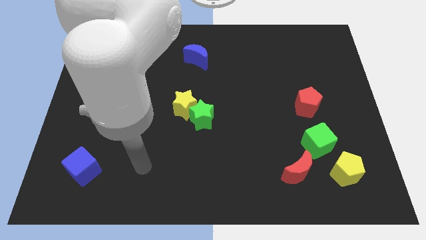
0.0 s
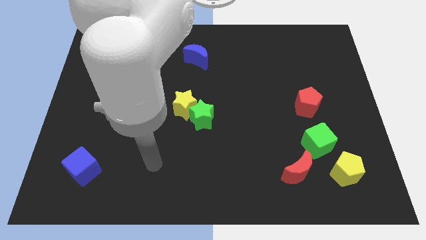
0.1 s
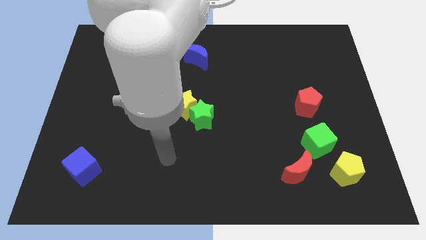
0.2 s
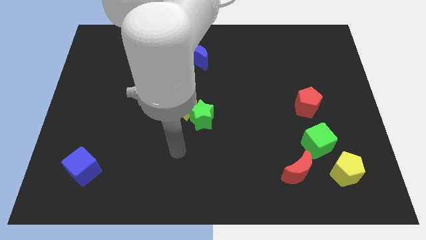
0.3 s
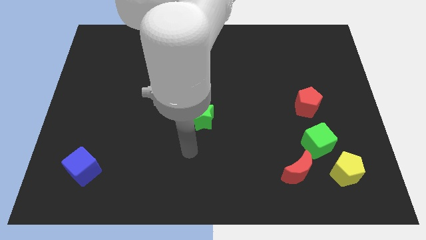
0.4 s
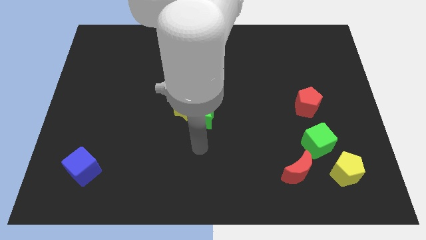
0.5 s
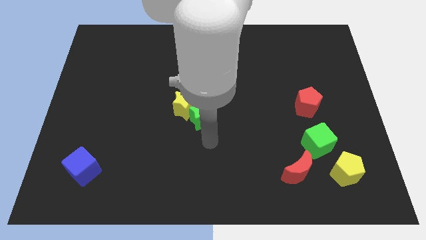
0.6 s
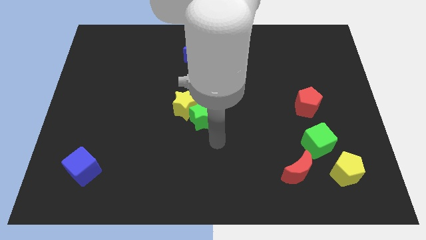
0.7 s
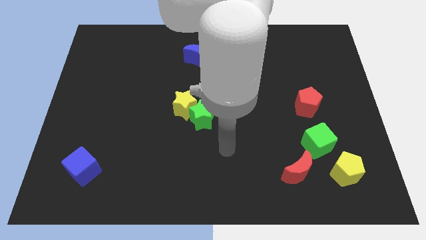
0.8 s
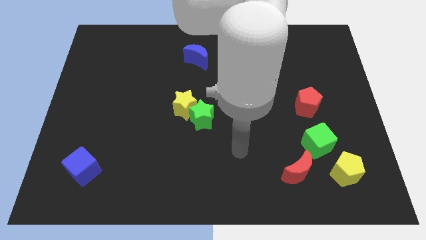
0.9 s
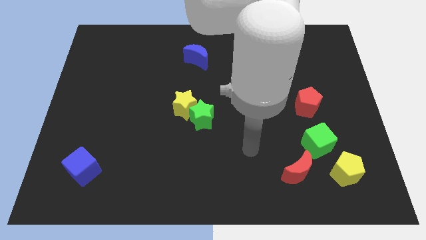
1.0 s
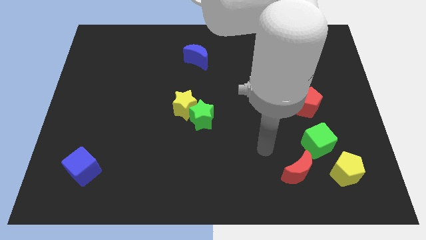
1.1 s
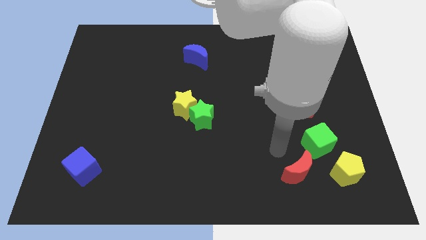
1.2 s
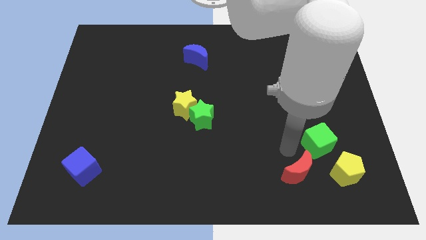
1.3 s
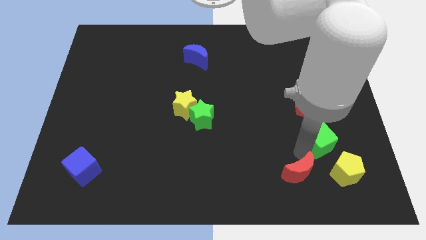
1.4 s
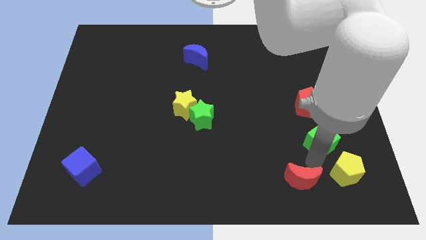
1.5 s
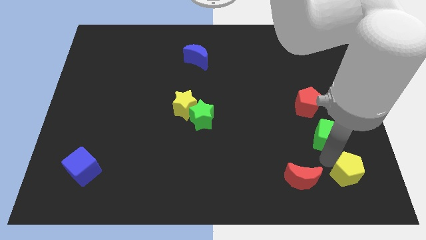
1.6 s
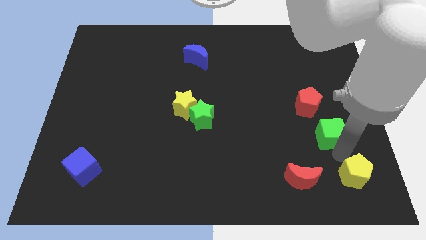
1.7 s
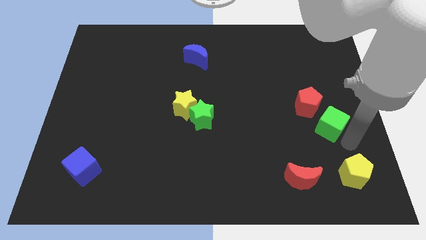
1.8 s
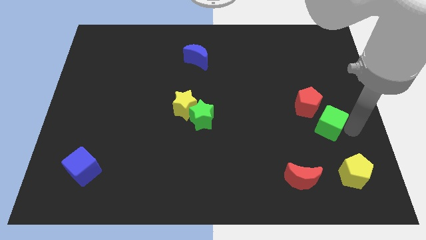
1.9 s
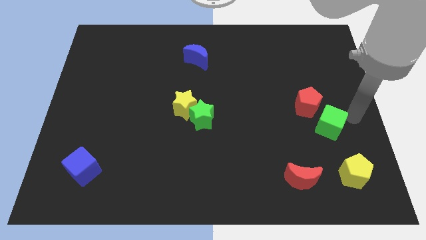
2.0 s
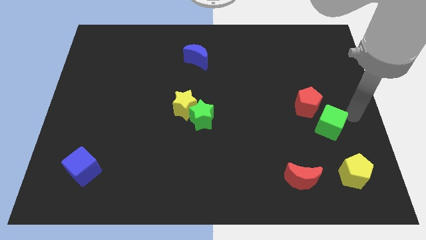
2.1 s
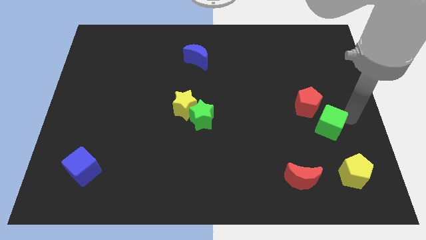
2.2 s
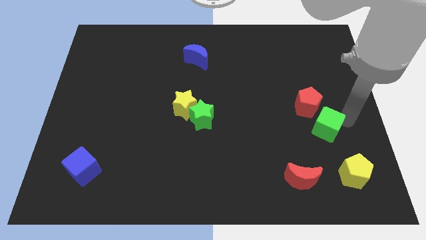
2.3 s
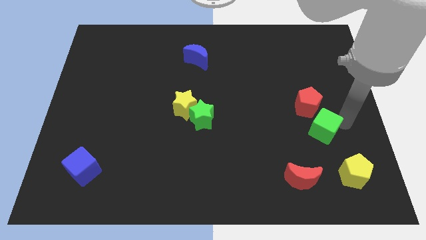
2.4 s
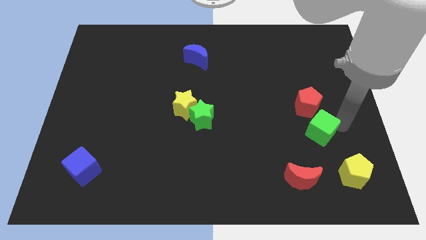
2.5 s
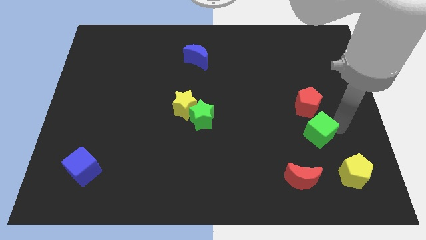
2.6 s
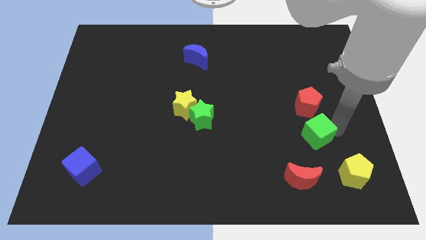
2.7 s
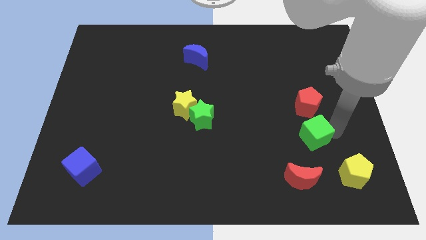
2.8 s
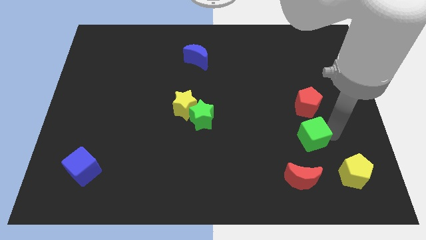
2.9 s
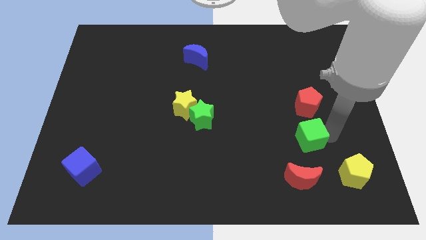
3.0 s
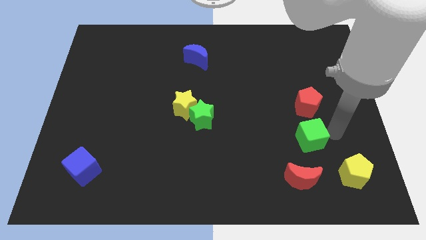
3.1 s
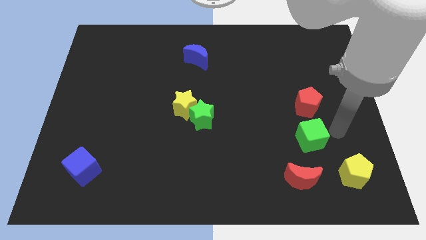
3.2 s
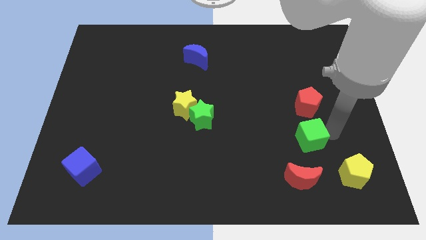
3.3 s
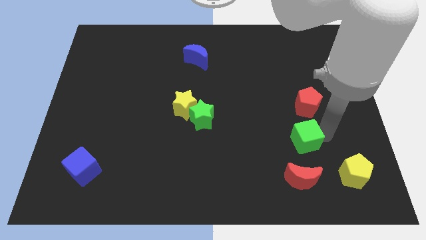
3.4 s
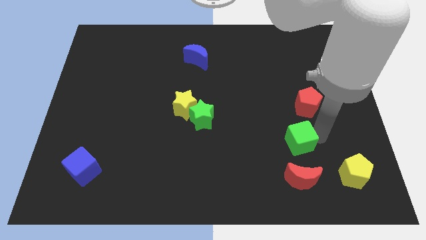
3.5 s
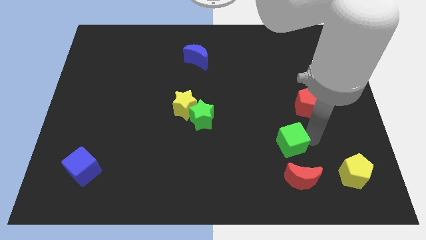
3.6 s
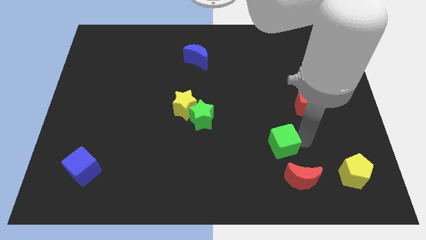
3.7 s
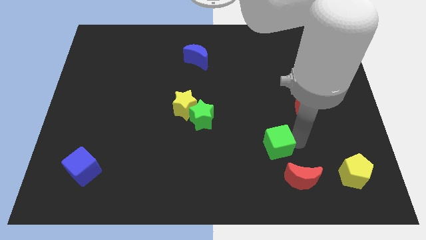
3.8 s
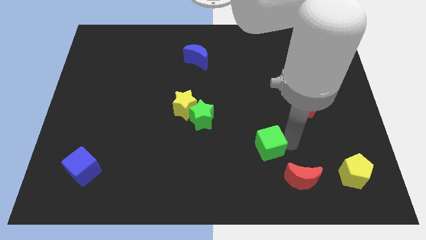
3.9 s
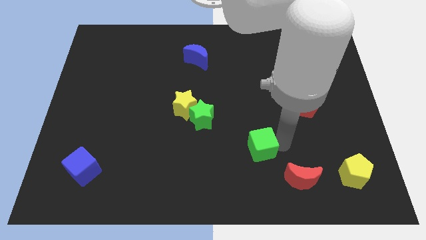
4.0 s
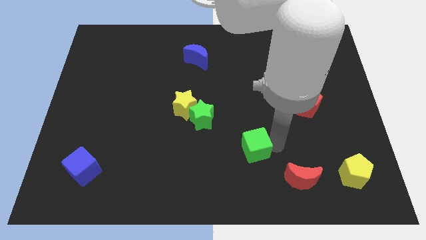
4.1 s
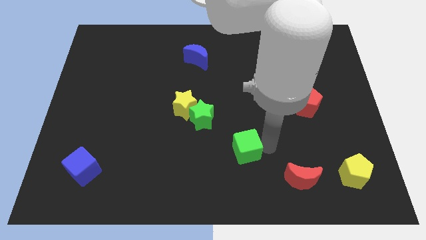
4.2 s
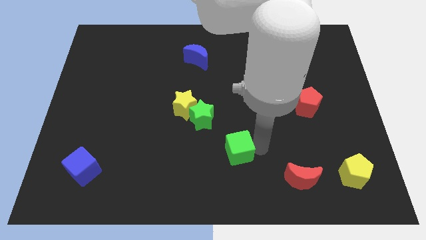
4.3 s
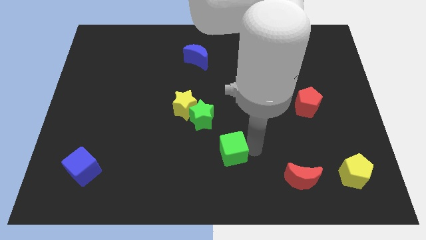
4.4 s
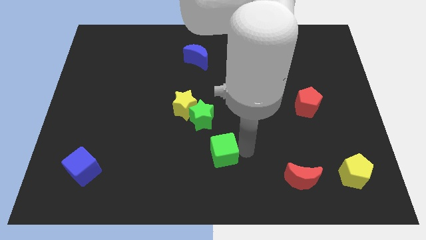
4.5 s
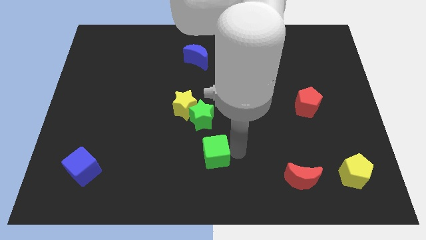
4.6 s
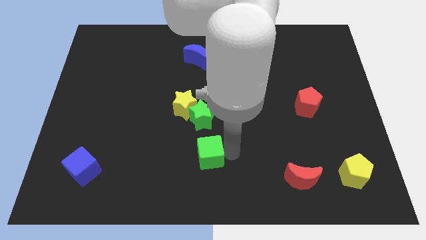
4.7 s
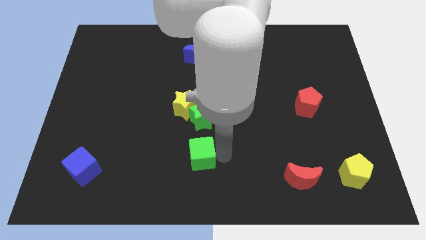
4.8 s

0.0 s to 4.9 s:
move the green cube to the bottom side of the yellow star

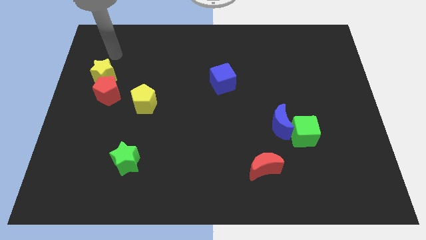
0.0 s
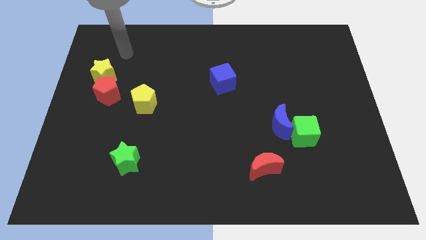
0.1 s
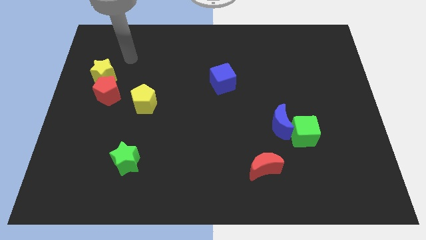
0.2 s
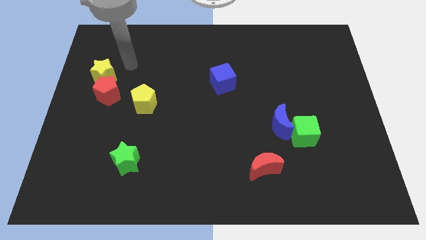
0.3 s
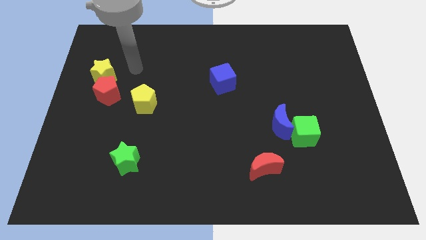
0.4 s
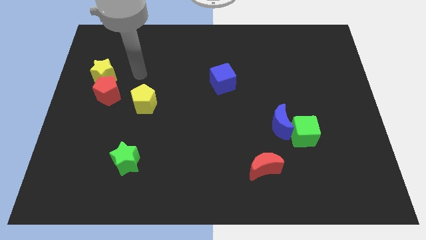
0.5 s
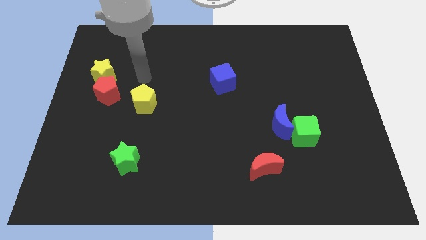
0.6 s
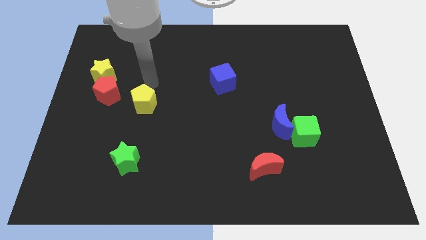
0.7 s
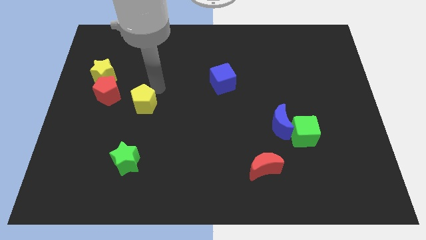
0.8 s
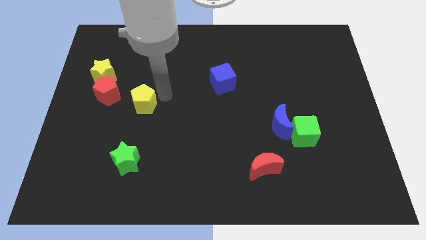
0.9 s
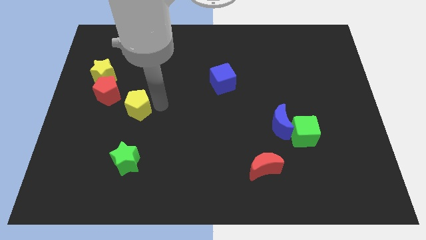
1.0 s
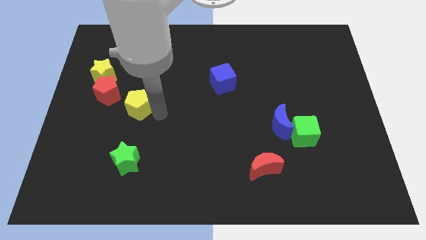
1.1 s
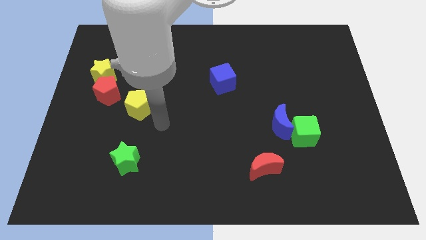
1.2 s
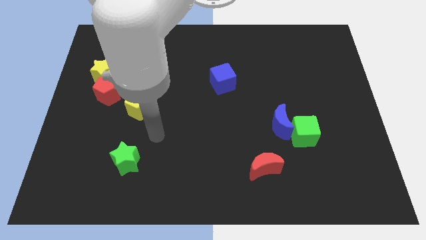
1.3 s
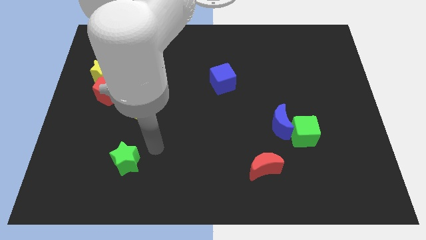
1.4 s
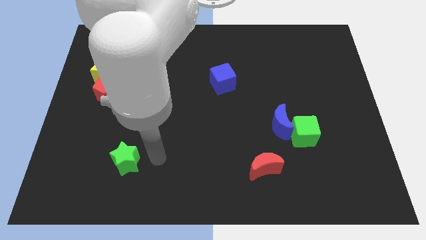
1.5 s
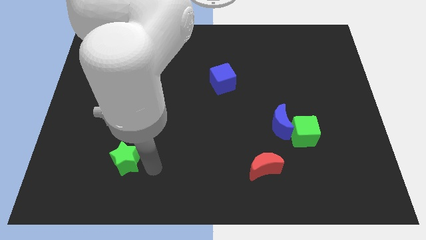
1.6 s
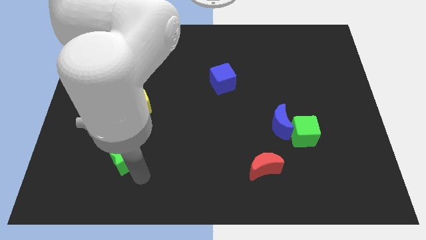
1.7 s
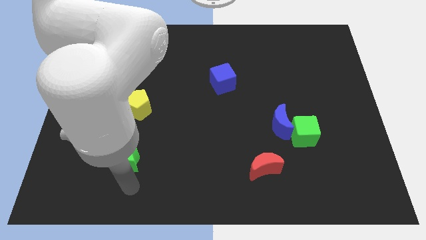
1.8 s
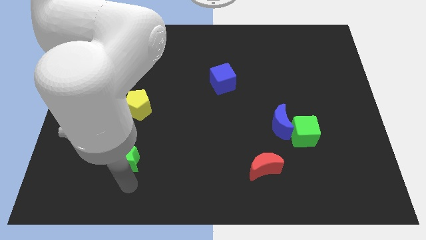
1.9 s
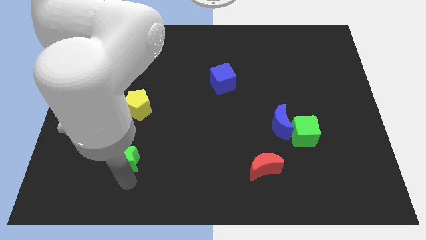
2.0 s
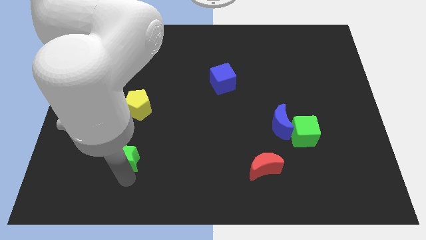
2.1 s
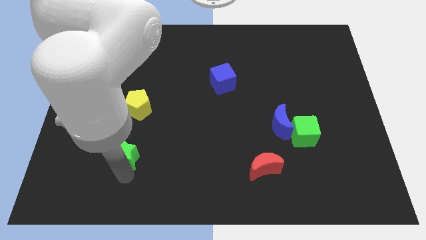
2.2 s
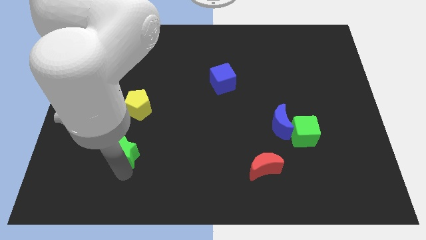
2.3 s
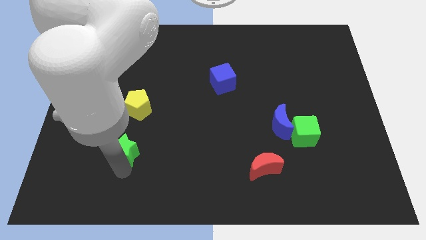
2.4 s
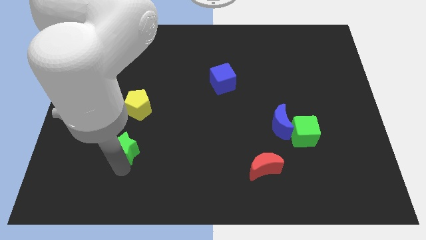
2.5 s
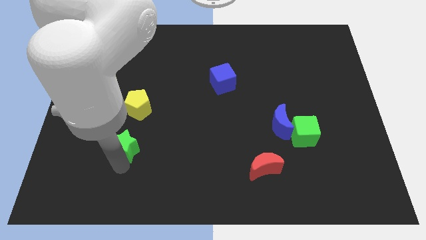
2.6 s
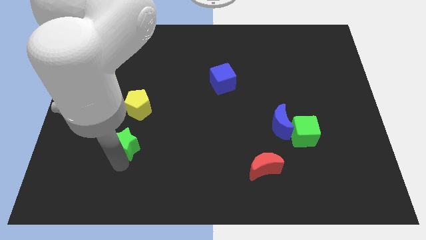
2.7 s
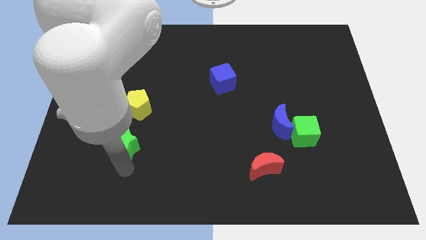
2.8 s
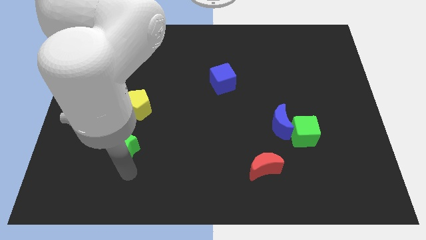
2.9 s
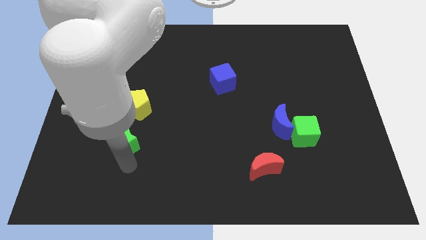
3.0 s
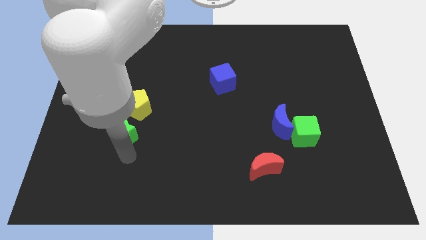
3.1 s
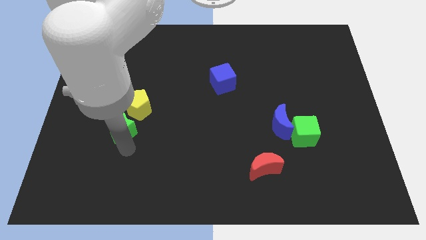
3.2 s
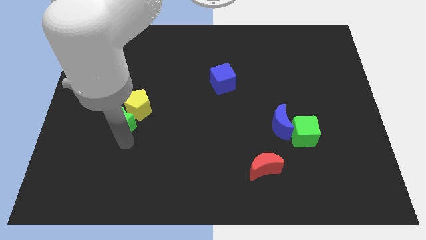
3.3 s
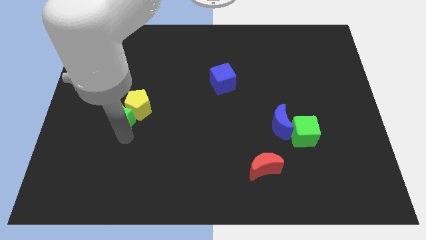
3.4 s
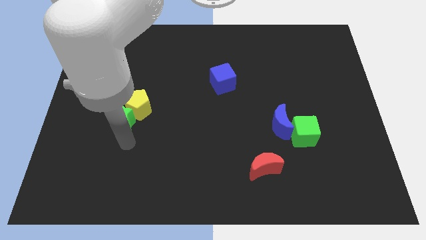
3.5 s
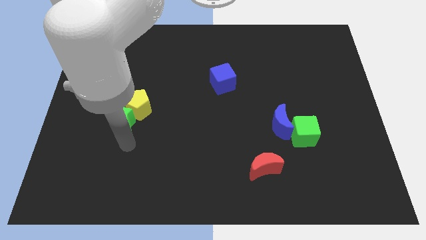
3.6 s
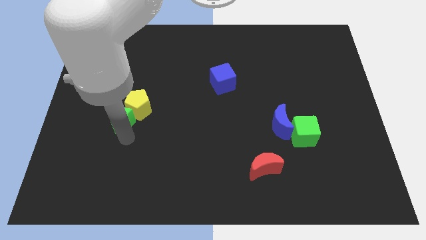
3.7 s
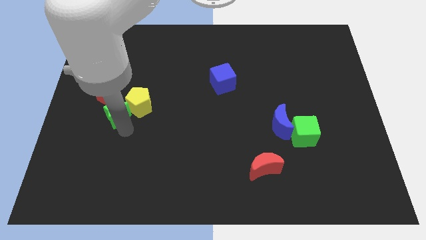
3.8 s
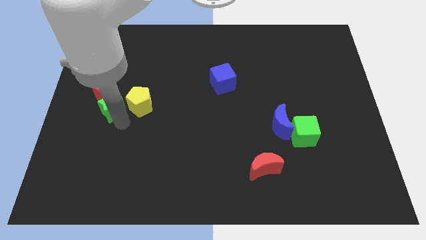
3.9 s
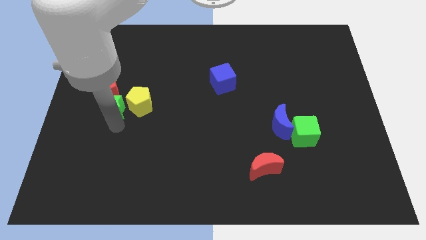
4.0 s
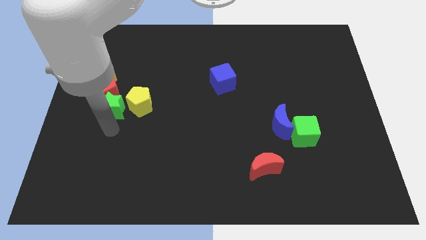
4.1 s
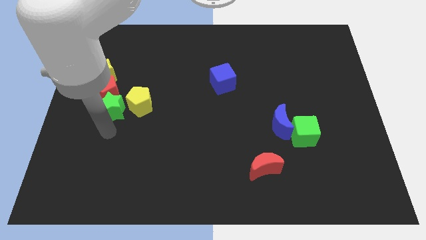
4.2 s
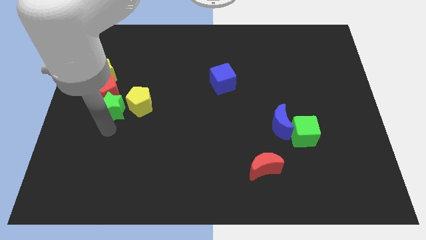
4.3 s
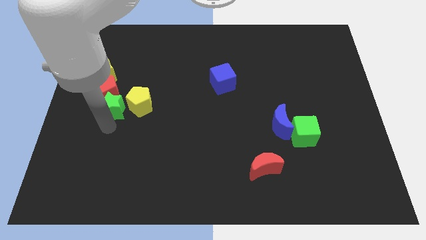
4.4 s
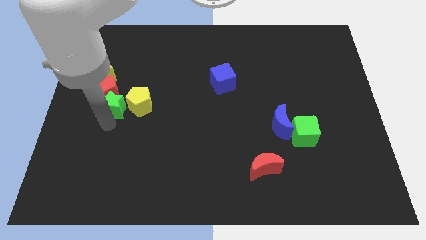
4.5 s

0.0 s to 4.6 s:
move the green star to the top left of the yellow pentagon
